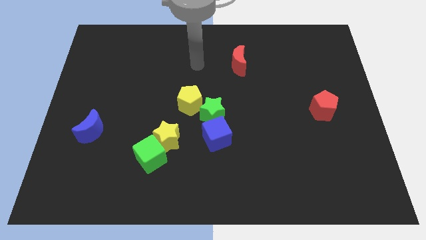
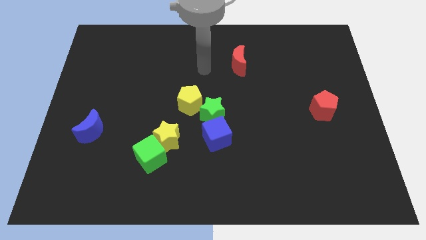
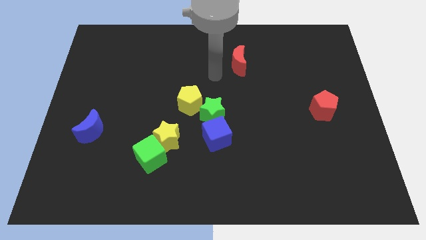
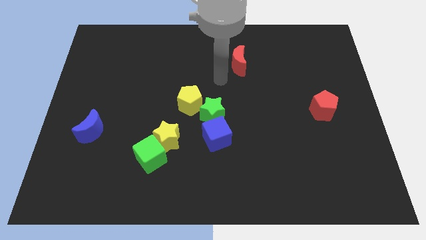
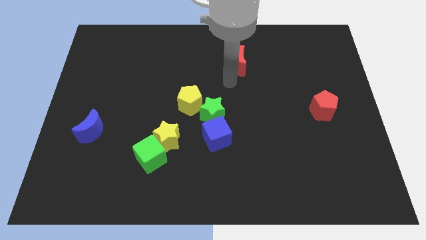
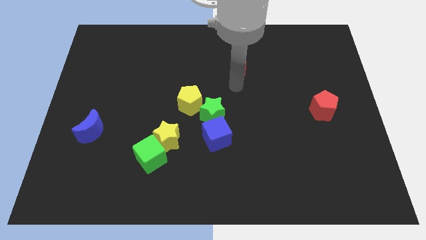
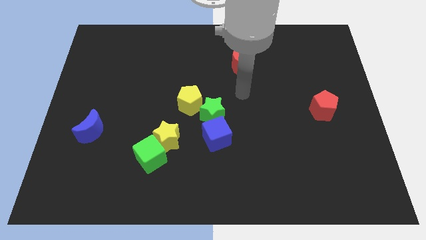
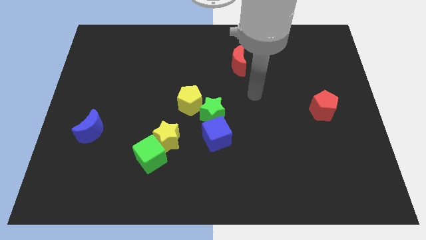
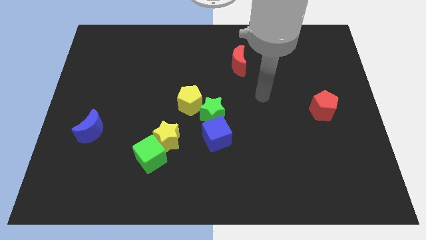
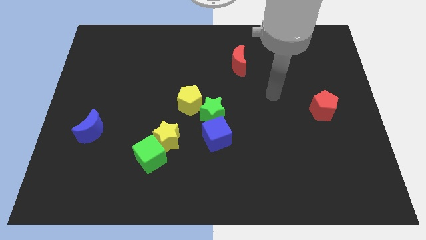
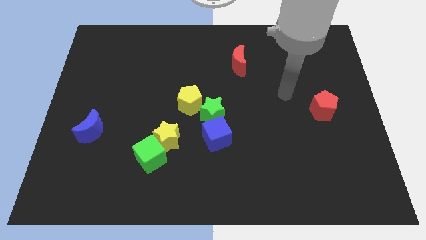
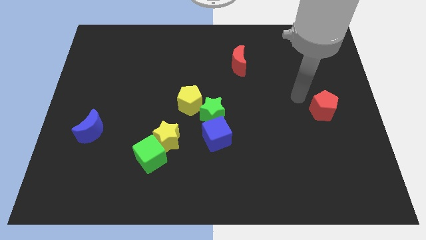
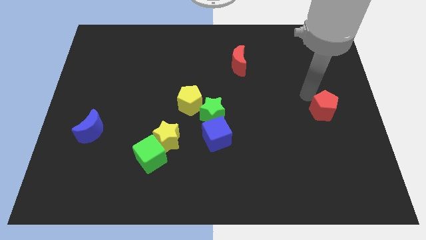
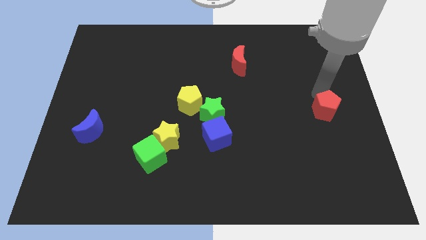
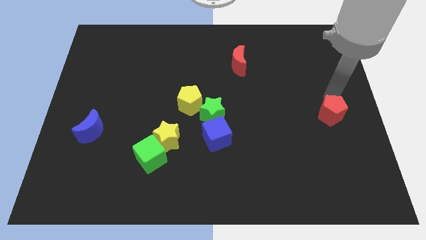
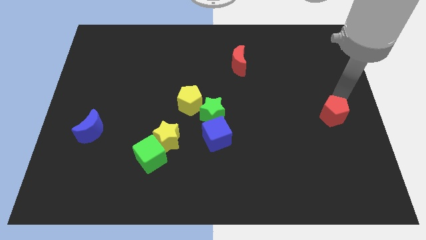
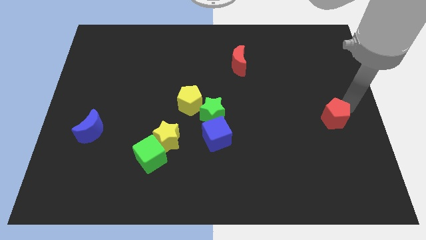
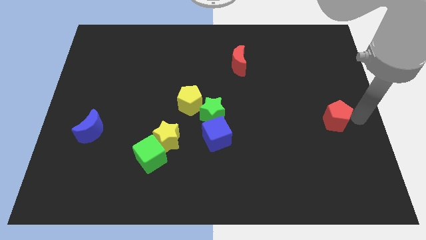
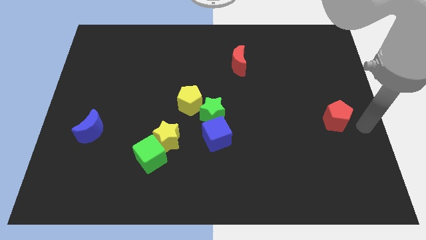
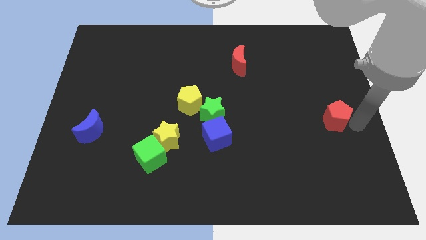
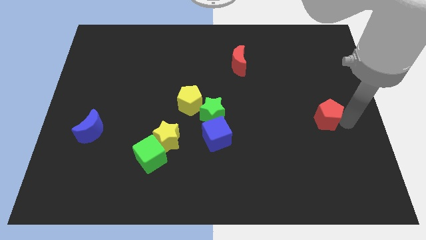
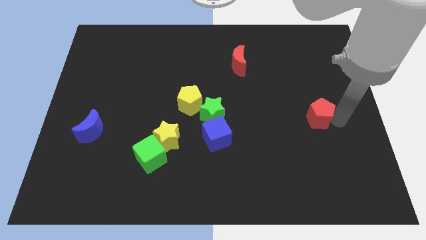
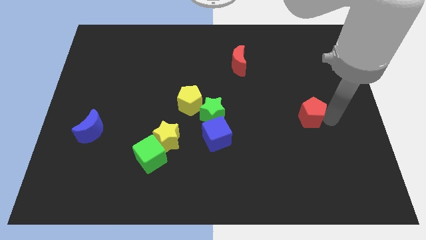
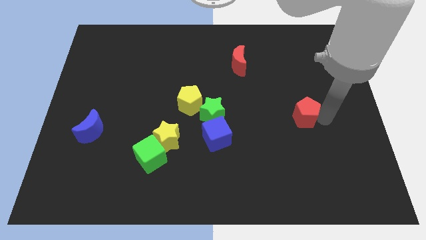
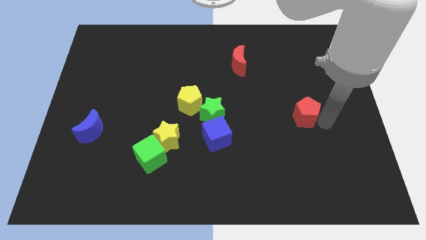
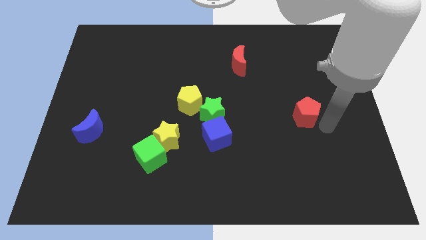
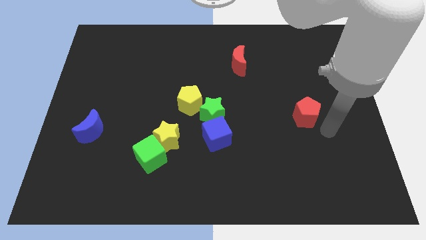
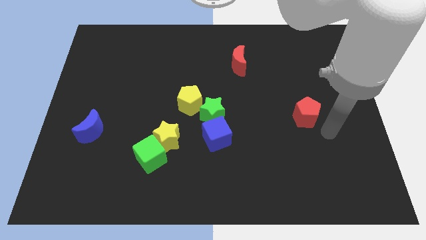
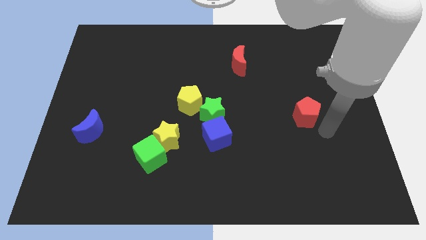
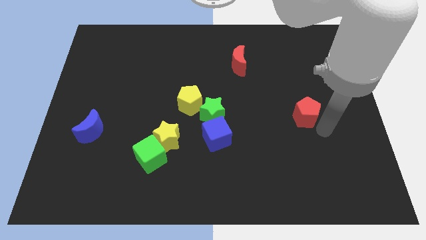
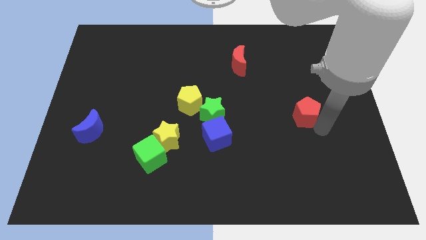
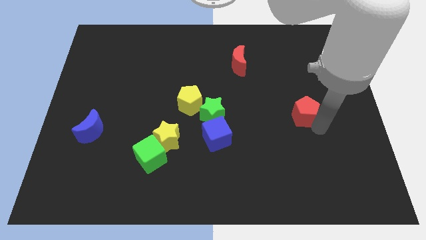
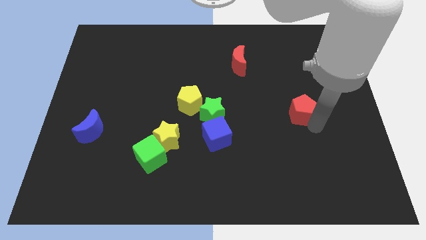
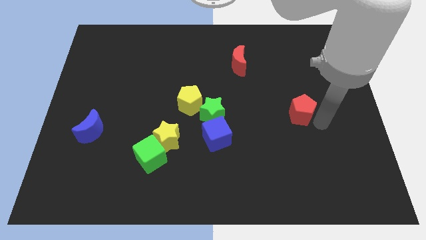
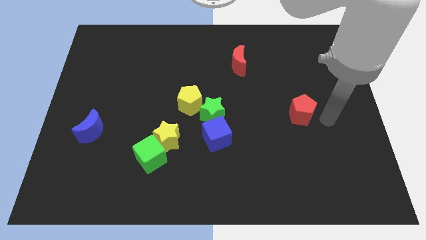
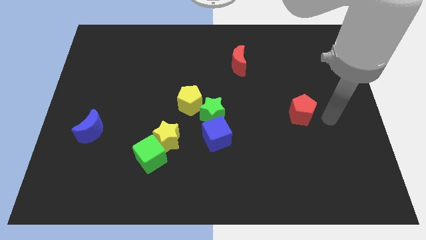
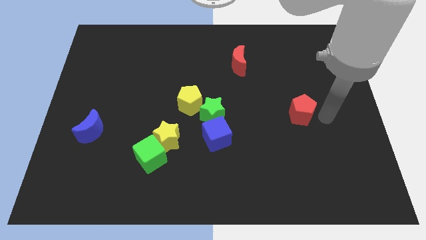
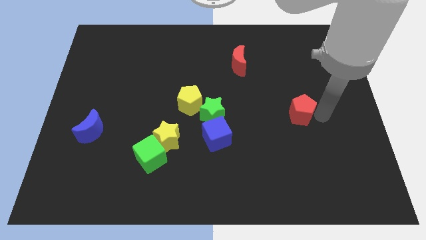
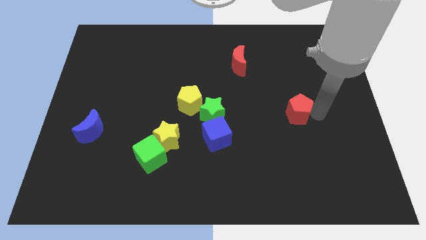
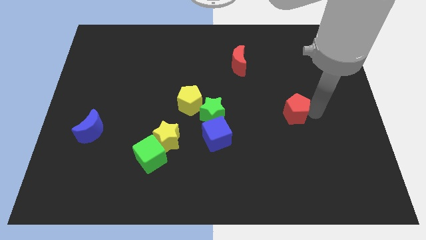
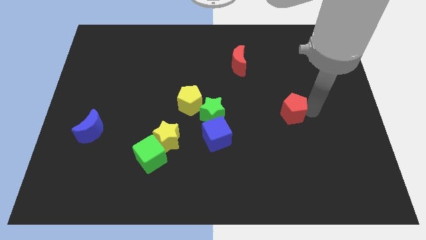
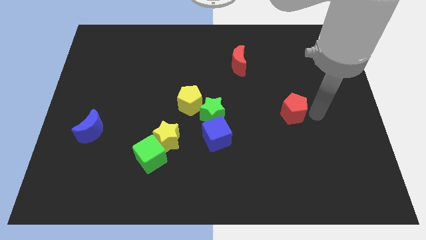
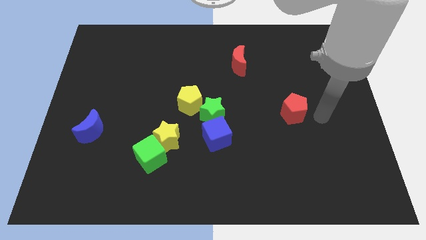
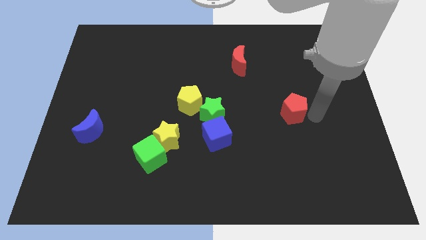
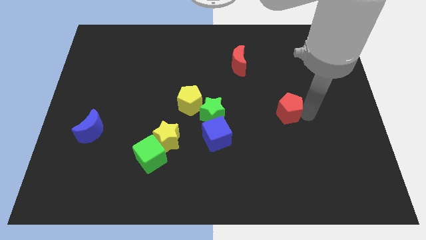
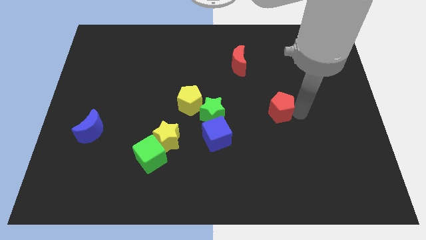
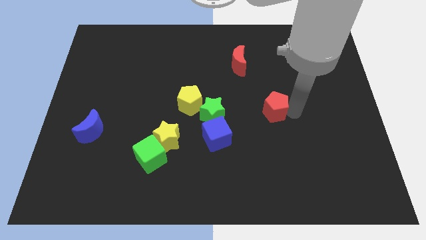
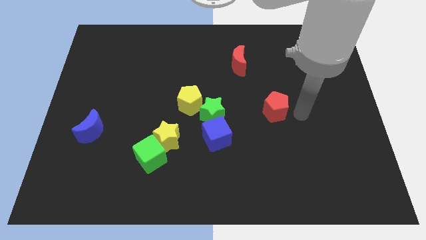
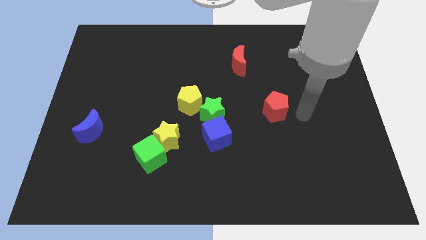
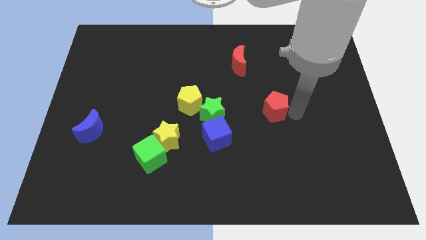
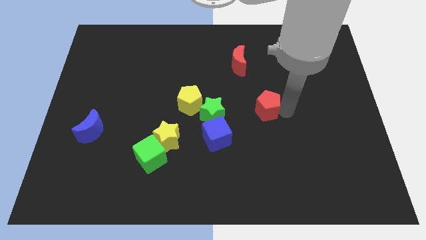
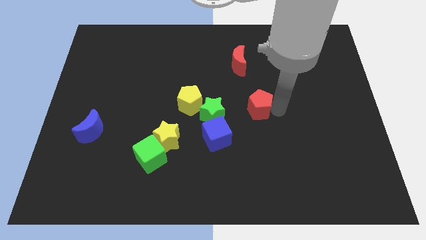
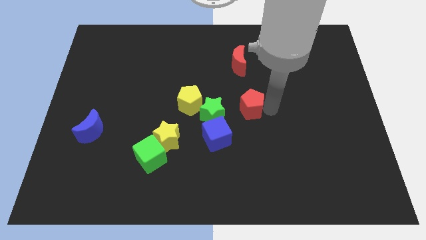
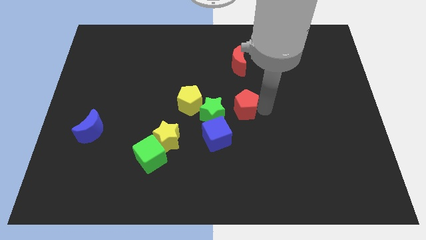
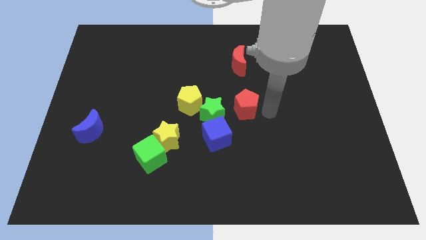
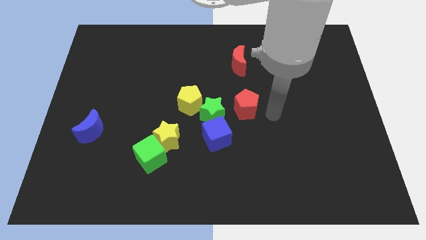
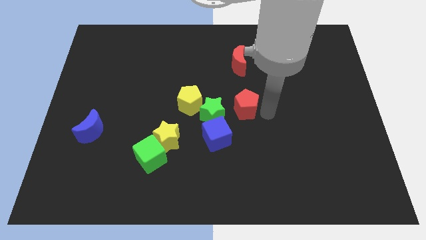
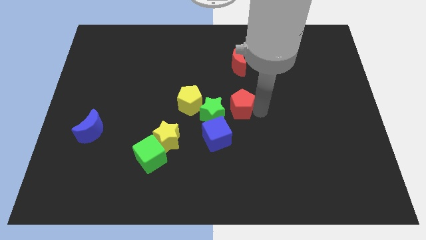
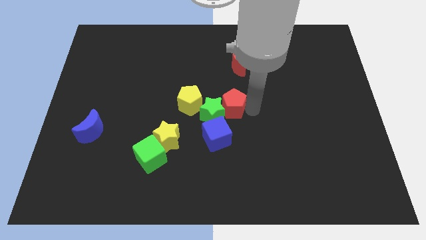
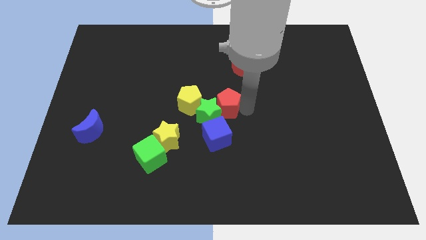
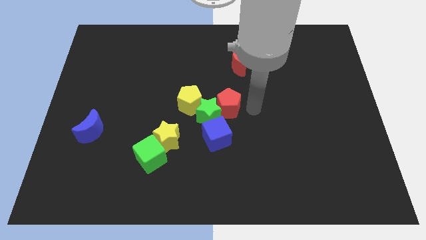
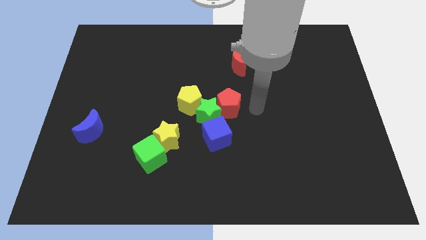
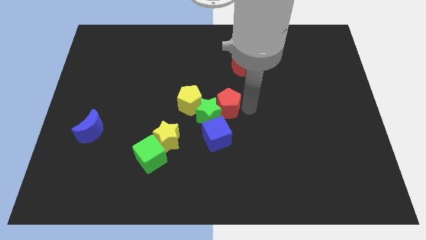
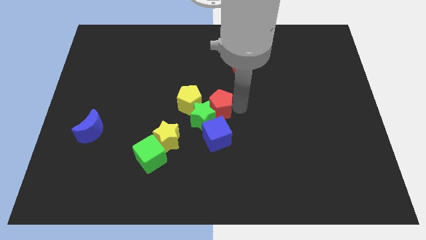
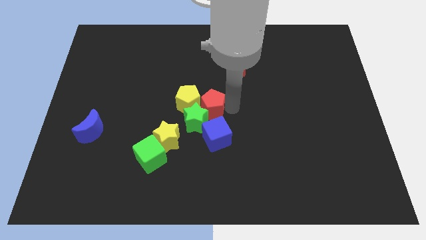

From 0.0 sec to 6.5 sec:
push the red pentagon next to the yellow pentagon

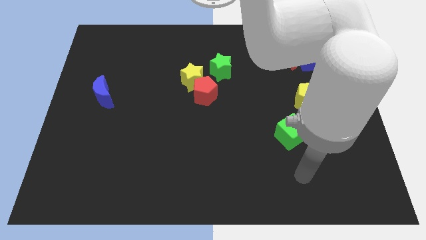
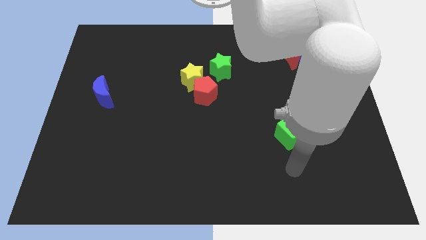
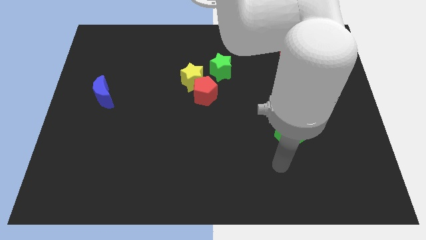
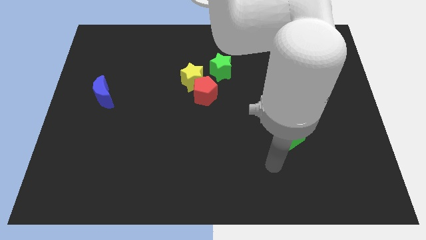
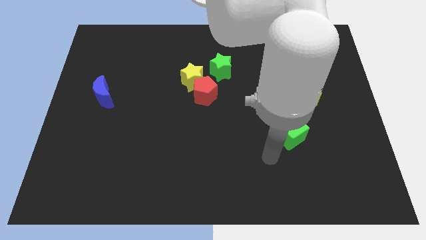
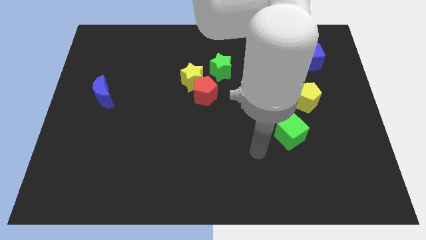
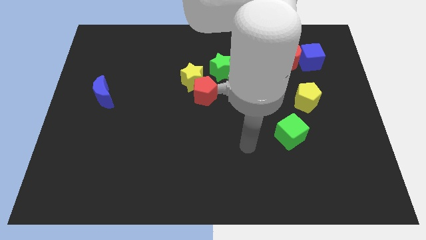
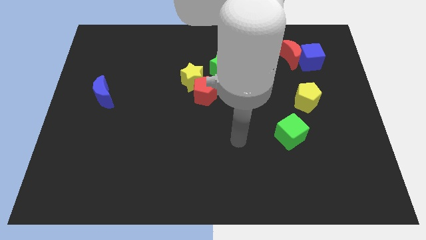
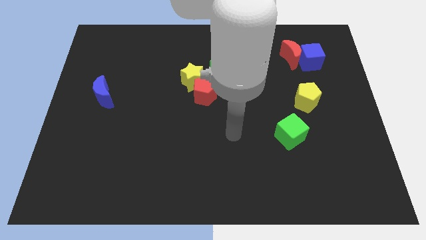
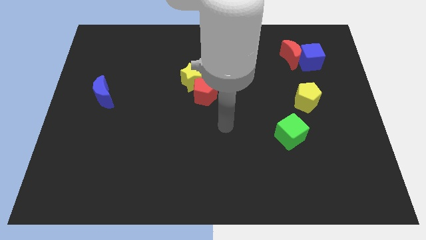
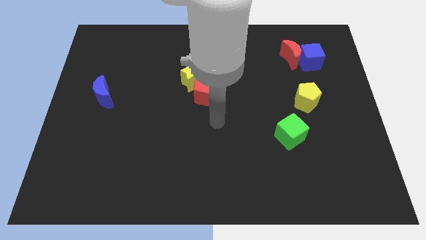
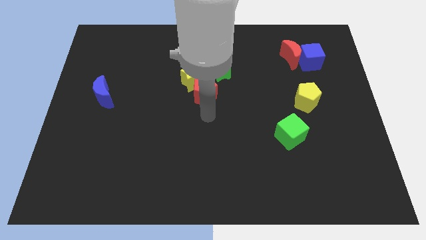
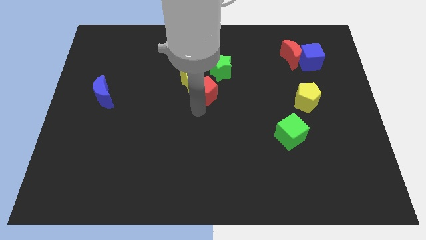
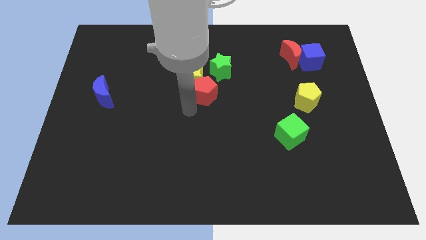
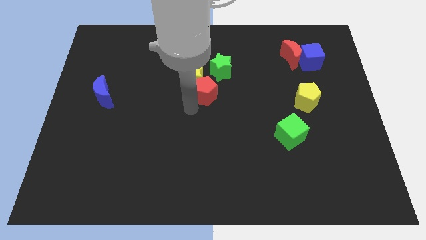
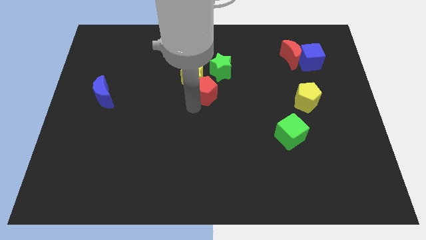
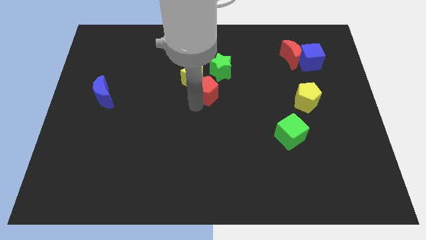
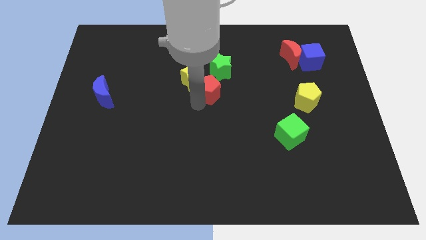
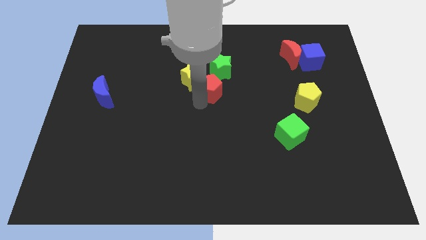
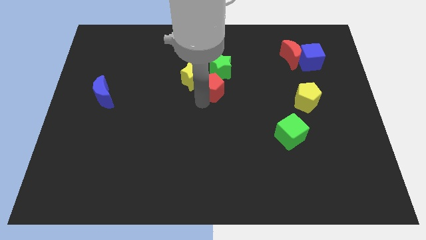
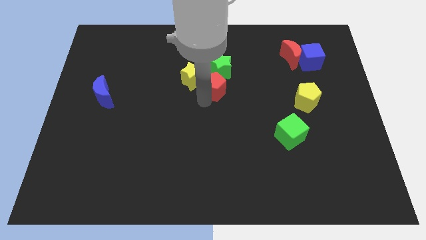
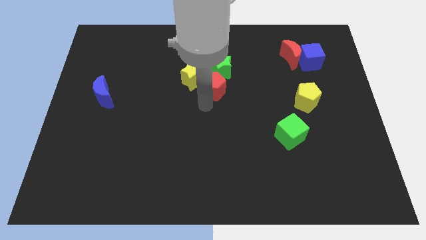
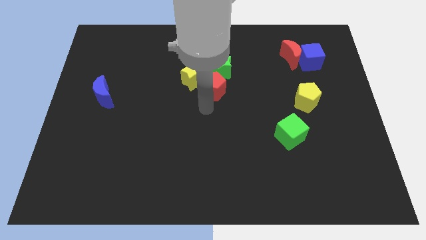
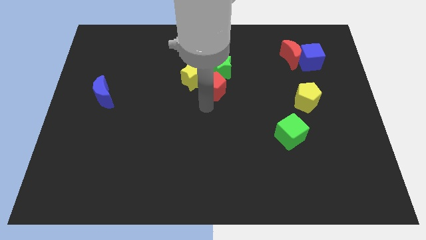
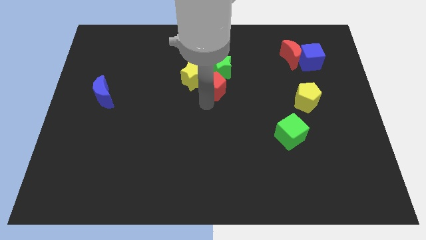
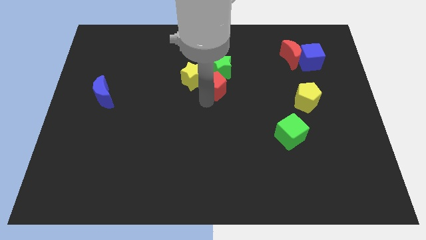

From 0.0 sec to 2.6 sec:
slide the red pentagon next to the green star
